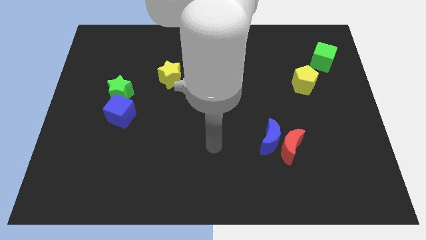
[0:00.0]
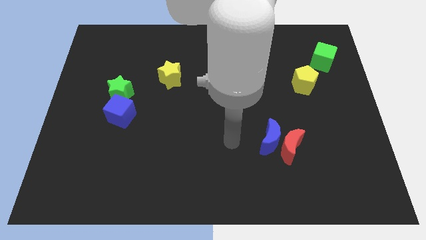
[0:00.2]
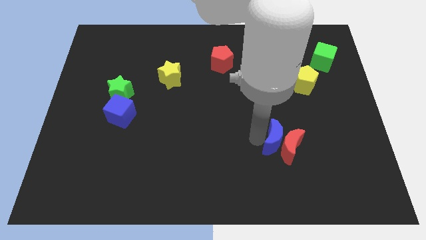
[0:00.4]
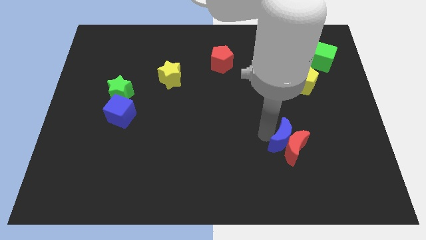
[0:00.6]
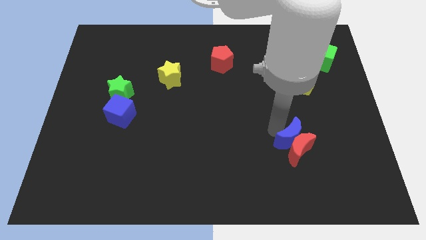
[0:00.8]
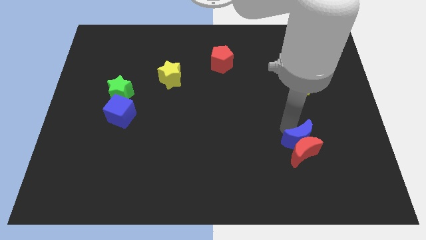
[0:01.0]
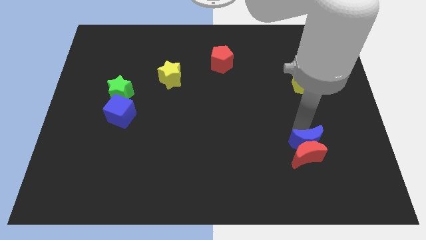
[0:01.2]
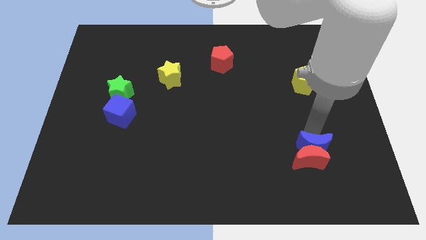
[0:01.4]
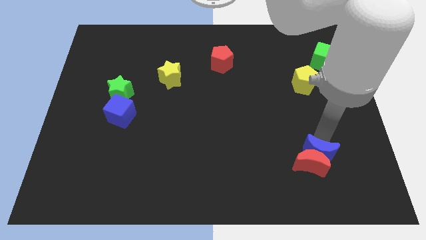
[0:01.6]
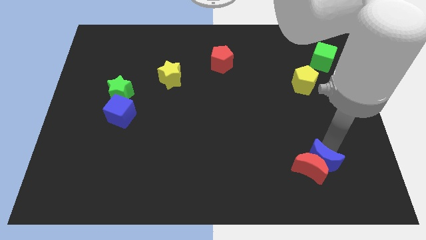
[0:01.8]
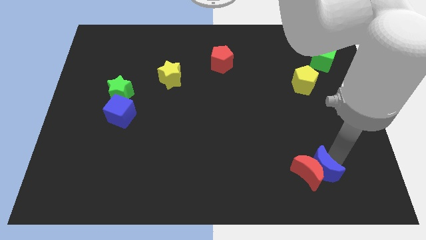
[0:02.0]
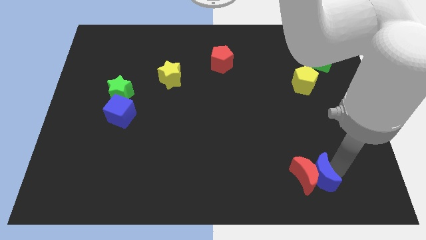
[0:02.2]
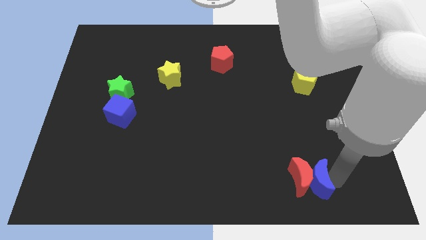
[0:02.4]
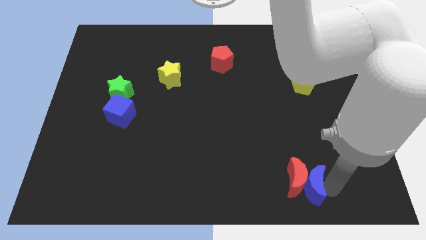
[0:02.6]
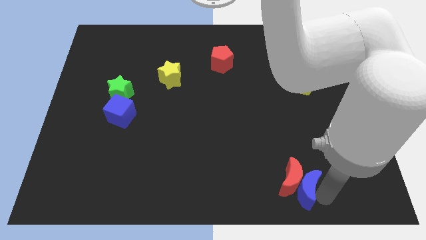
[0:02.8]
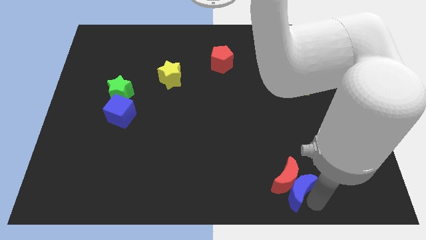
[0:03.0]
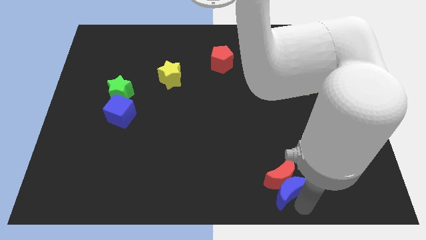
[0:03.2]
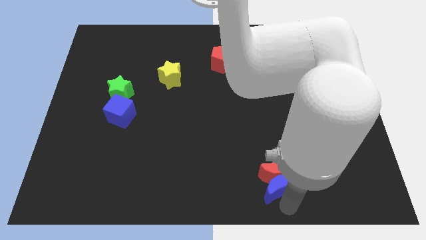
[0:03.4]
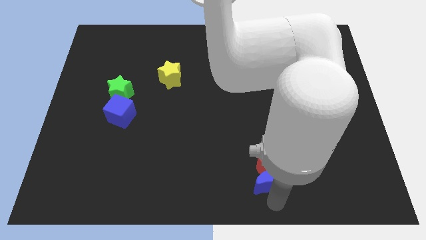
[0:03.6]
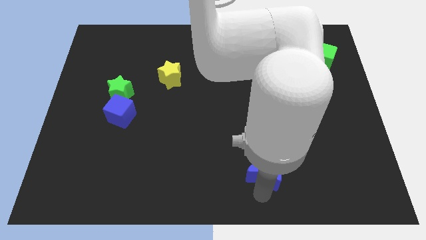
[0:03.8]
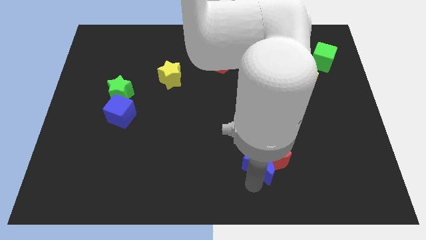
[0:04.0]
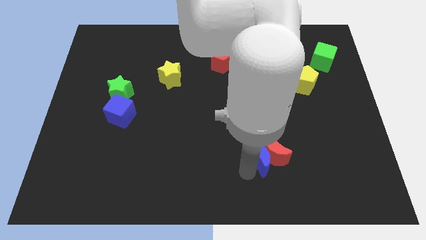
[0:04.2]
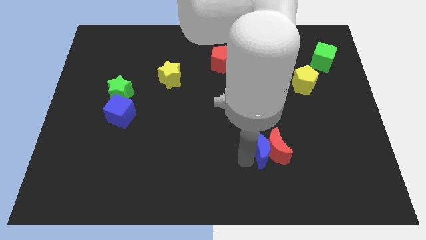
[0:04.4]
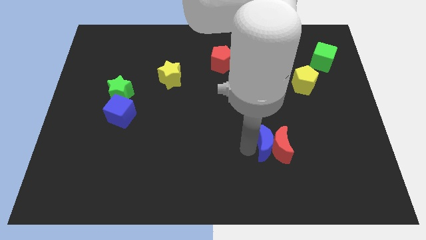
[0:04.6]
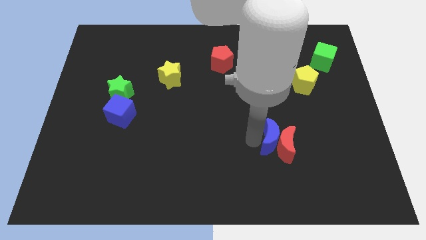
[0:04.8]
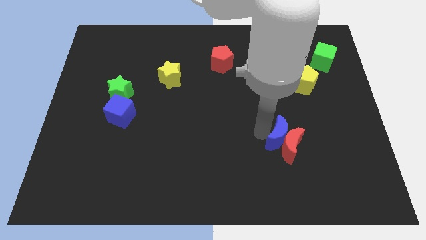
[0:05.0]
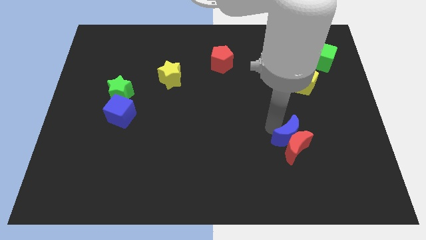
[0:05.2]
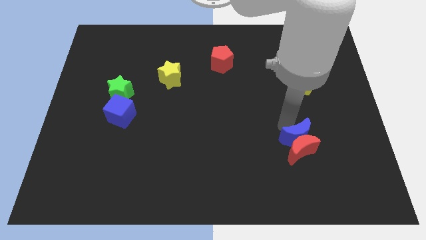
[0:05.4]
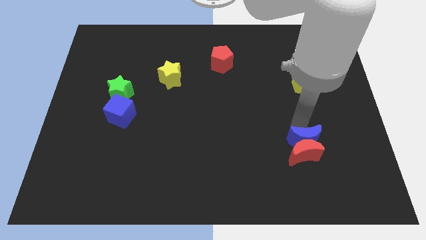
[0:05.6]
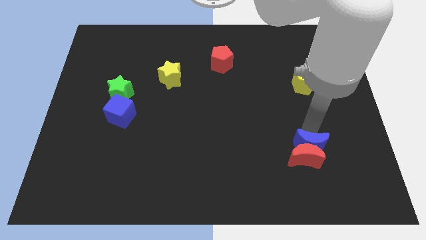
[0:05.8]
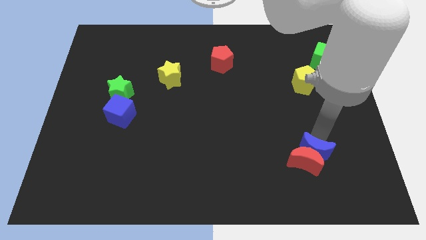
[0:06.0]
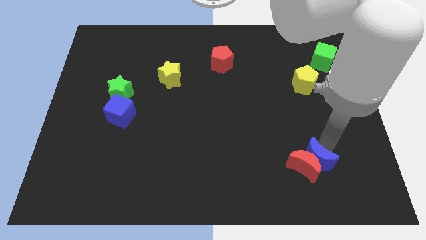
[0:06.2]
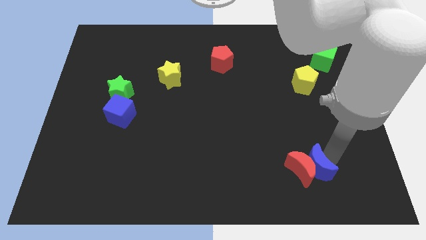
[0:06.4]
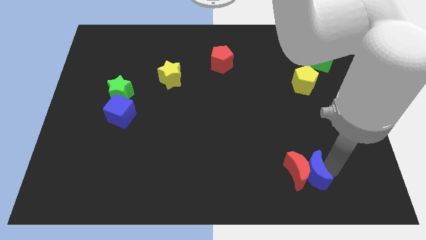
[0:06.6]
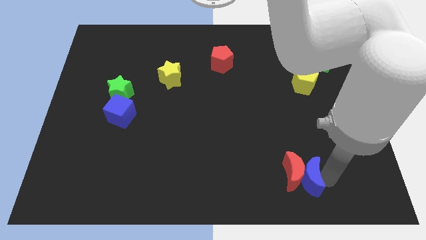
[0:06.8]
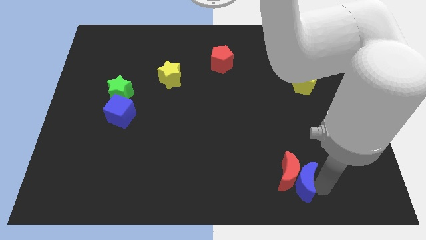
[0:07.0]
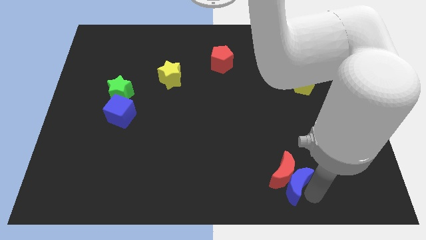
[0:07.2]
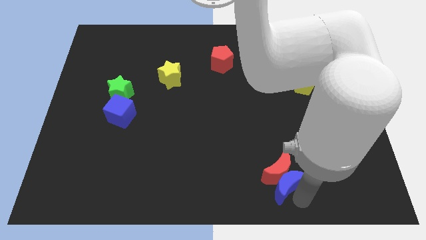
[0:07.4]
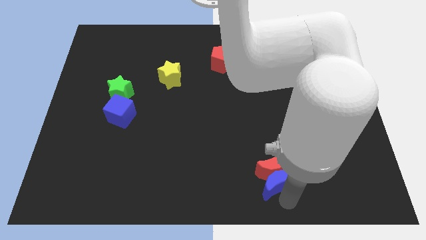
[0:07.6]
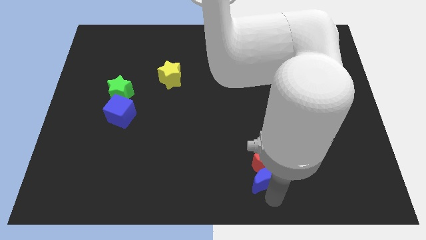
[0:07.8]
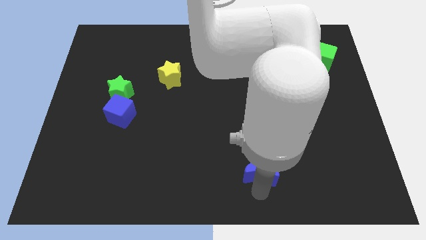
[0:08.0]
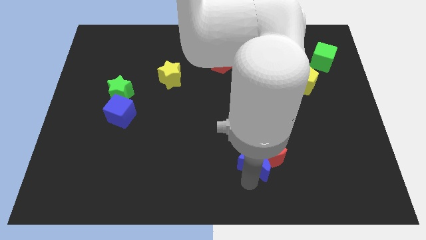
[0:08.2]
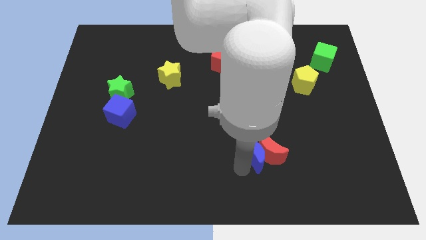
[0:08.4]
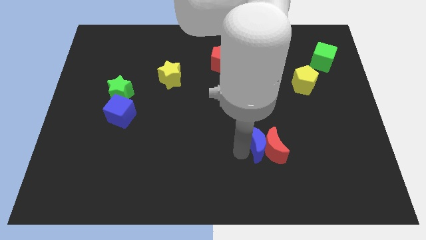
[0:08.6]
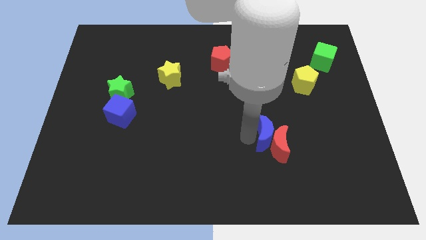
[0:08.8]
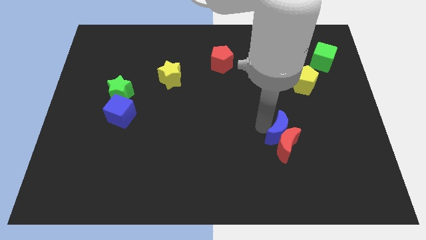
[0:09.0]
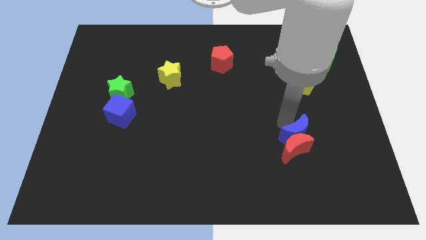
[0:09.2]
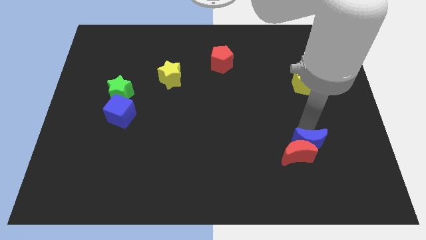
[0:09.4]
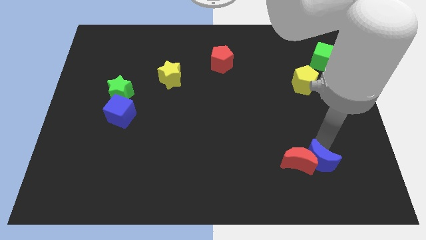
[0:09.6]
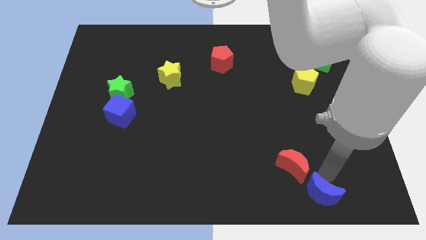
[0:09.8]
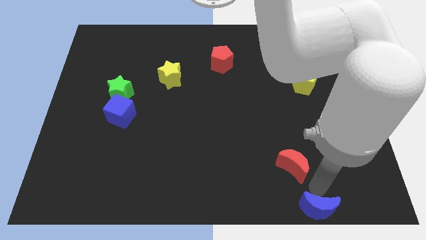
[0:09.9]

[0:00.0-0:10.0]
move the red moon away from the blue moon

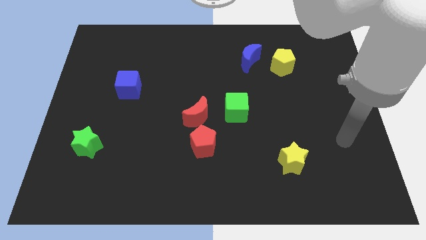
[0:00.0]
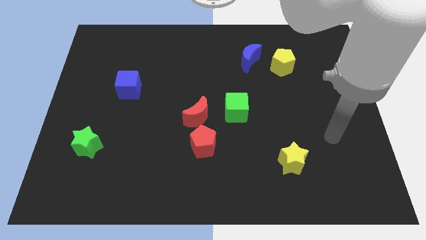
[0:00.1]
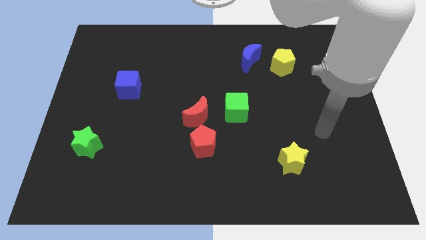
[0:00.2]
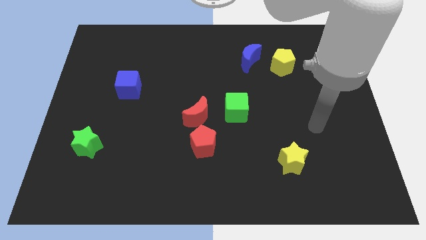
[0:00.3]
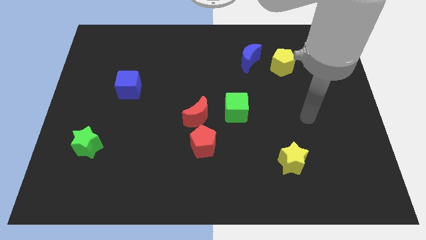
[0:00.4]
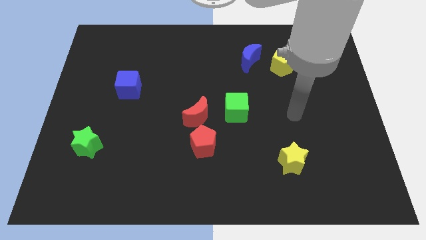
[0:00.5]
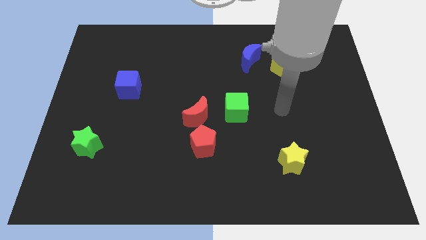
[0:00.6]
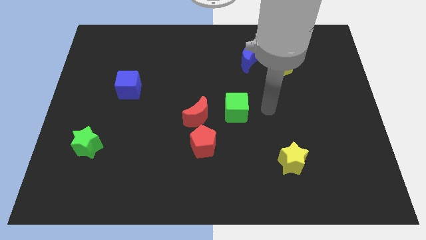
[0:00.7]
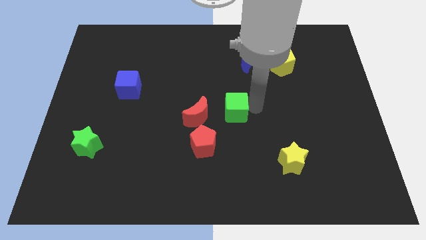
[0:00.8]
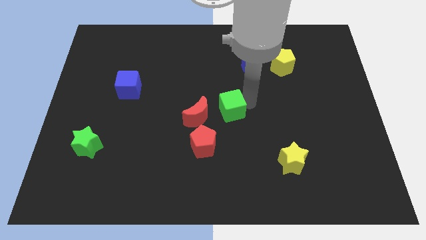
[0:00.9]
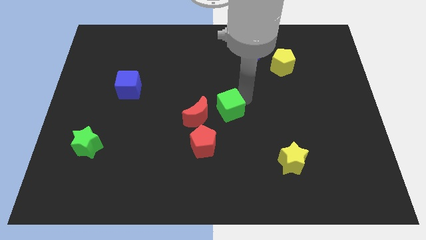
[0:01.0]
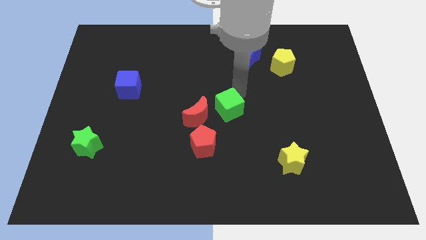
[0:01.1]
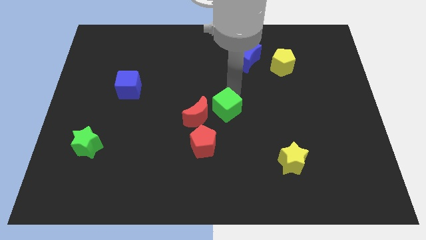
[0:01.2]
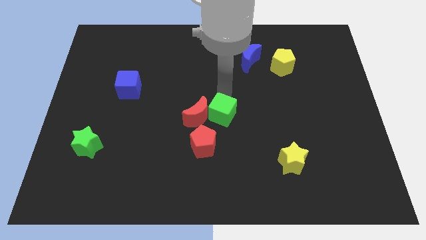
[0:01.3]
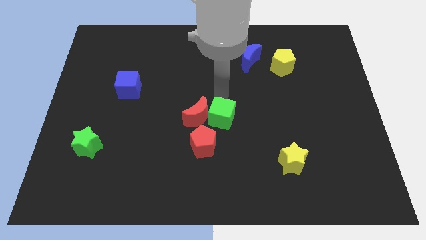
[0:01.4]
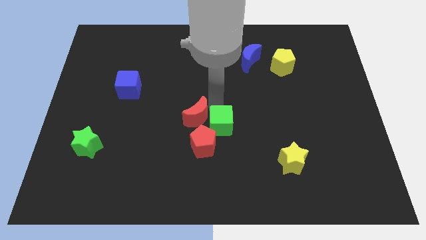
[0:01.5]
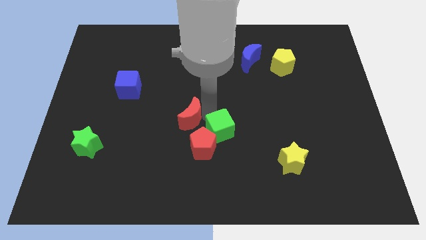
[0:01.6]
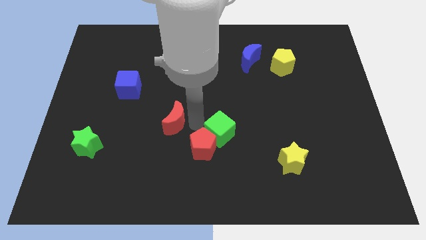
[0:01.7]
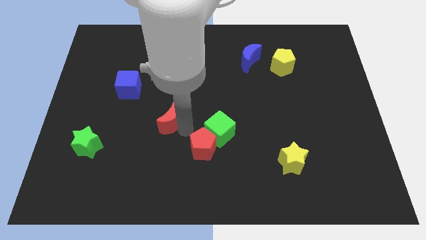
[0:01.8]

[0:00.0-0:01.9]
pull the red pentagon apart from the red moon

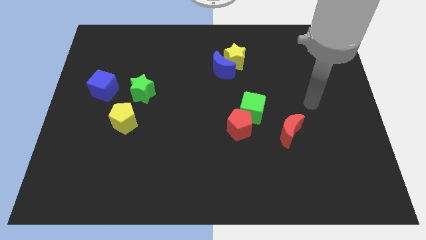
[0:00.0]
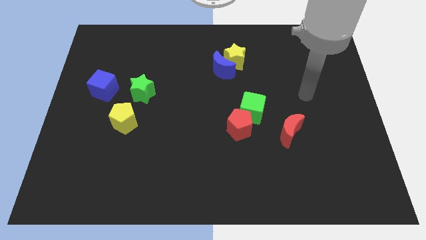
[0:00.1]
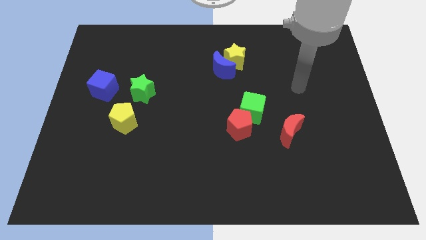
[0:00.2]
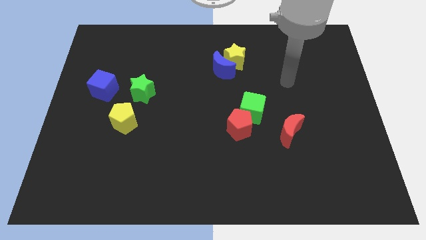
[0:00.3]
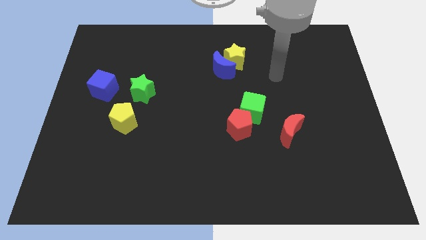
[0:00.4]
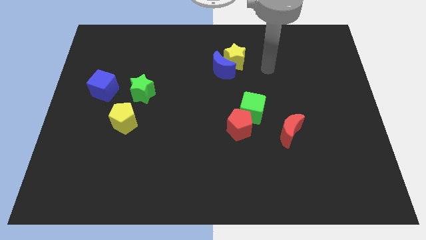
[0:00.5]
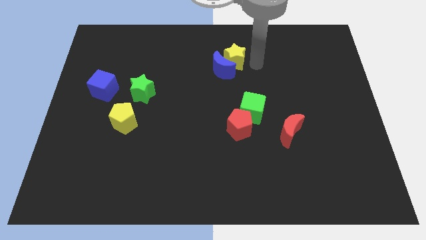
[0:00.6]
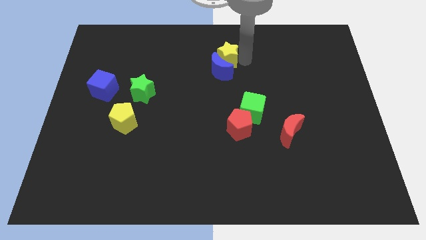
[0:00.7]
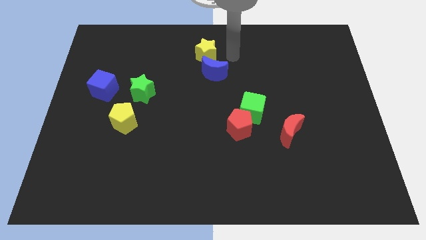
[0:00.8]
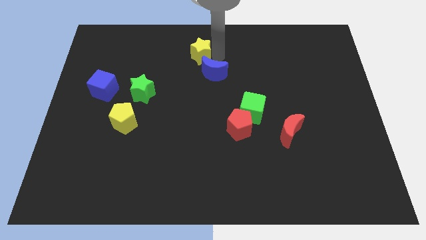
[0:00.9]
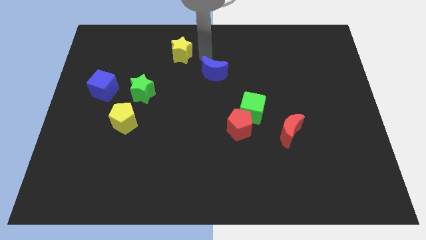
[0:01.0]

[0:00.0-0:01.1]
separate the blue moon from the yellow star

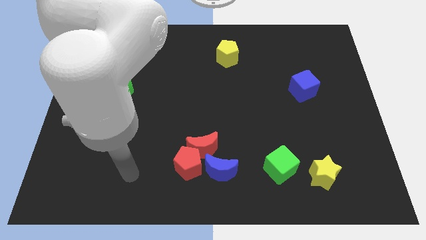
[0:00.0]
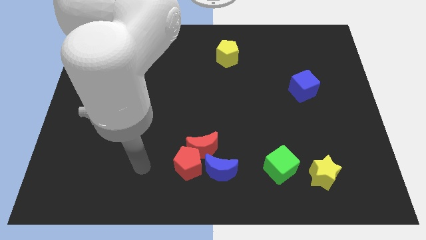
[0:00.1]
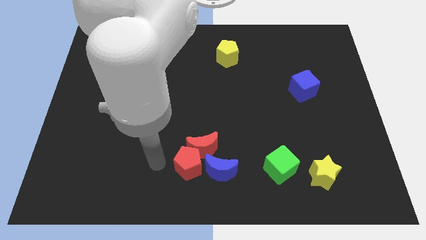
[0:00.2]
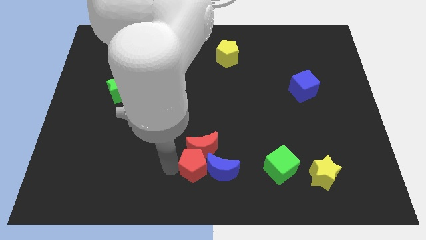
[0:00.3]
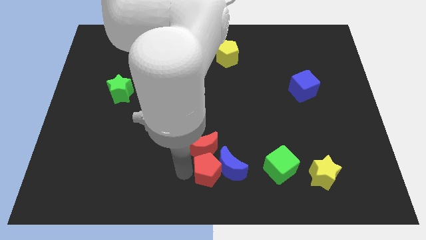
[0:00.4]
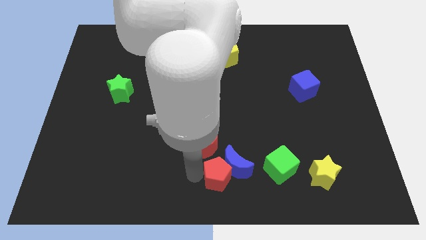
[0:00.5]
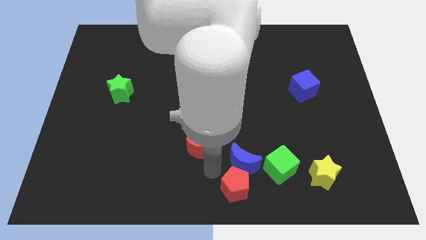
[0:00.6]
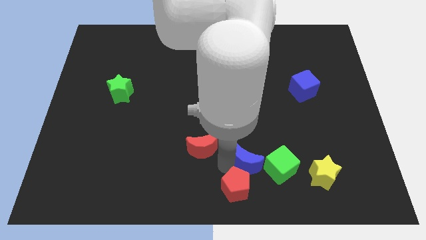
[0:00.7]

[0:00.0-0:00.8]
pull the red moon apart from the red pentagon and blue moon

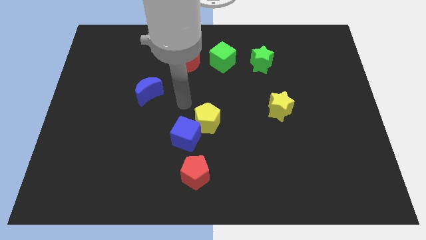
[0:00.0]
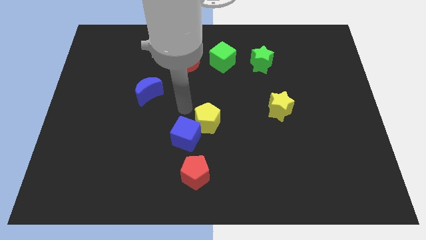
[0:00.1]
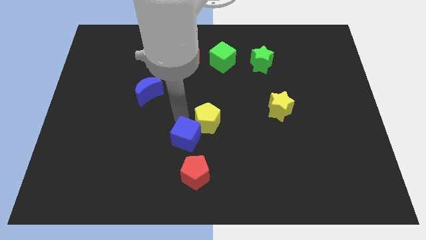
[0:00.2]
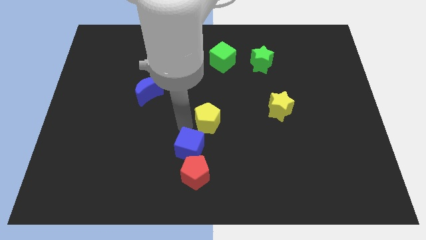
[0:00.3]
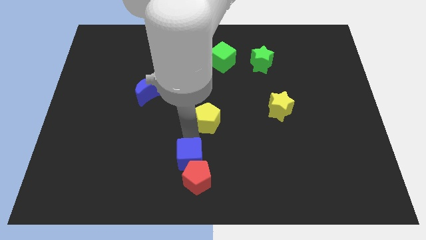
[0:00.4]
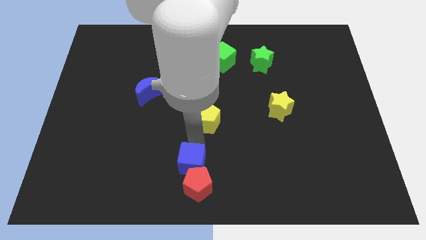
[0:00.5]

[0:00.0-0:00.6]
pull the yellow pentagon apart from the blue cube

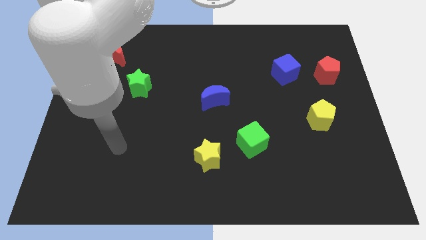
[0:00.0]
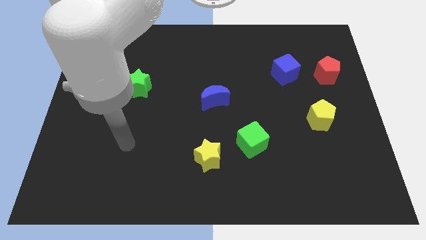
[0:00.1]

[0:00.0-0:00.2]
pull the green cube apart from the yellow star
